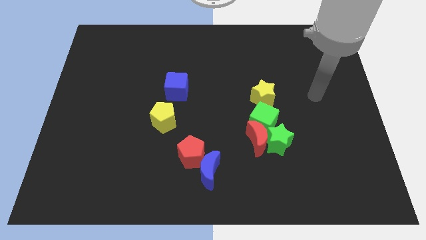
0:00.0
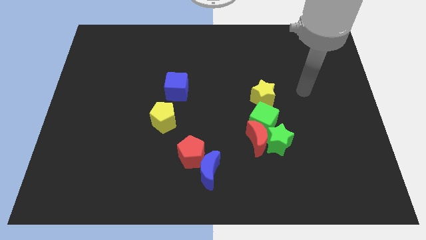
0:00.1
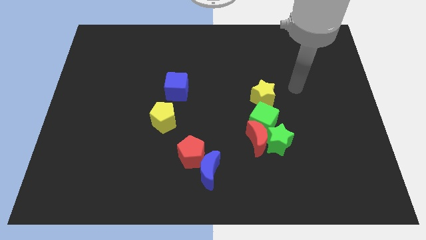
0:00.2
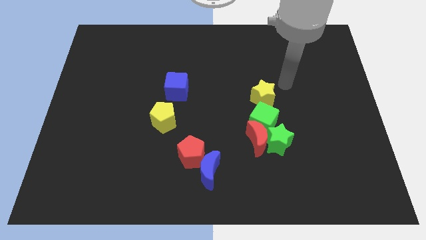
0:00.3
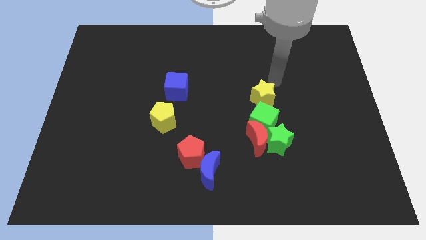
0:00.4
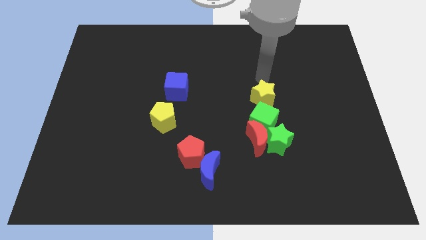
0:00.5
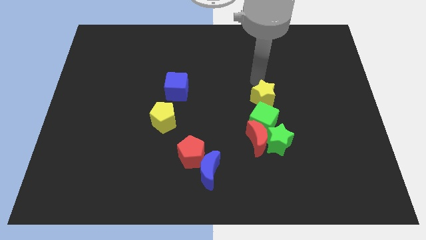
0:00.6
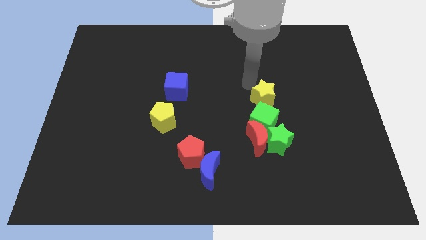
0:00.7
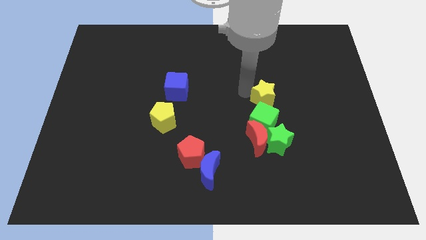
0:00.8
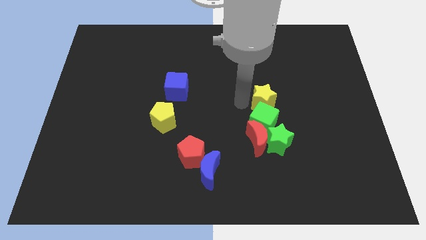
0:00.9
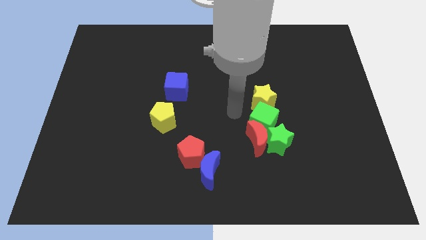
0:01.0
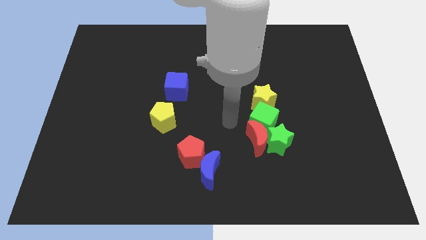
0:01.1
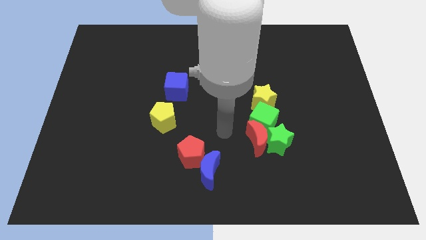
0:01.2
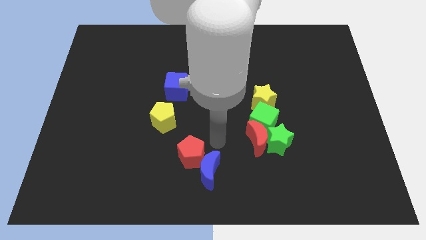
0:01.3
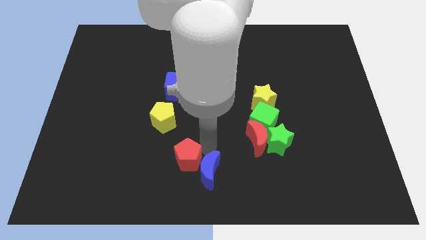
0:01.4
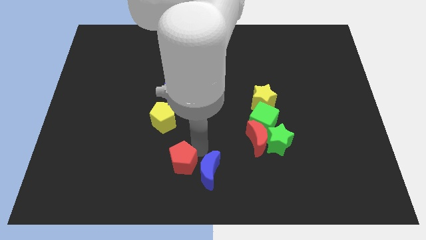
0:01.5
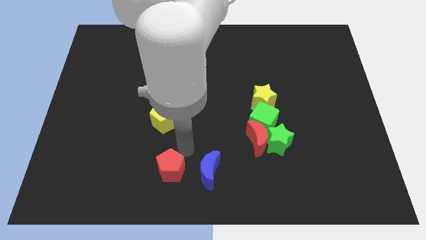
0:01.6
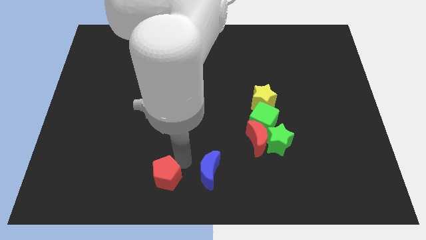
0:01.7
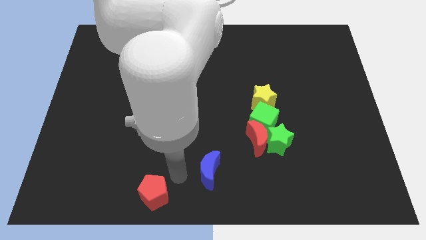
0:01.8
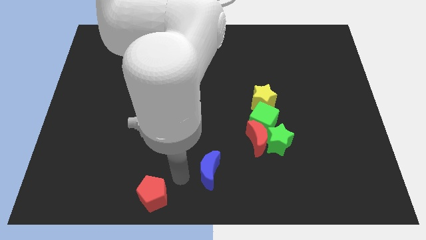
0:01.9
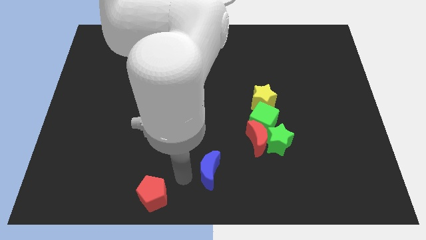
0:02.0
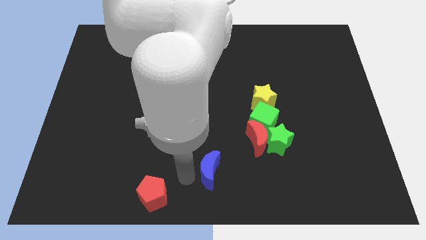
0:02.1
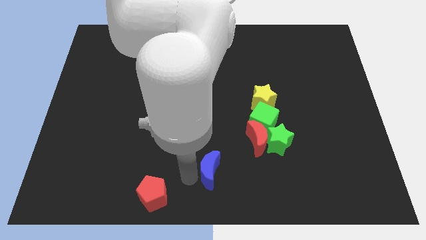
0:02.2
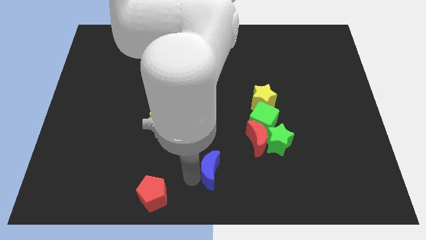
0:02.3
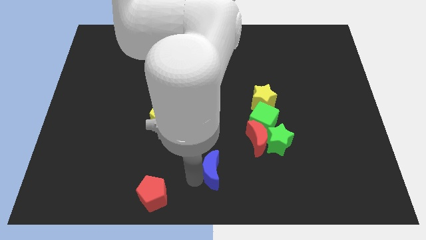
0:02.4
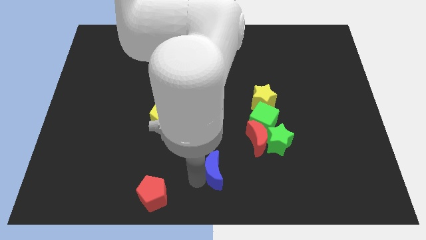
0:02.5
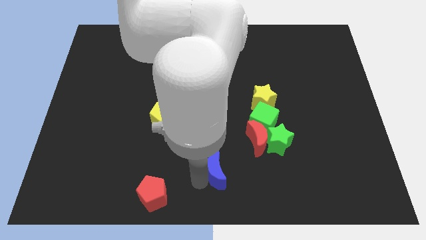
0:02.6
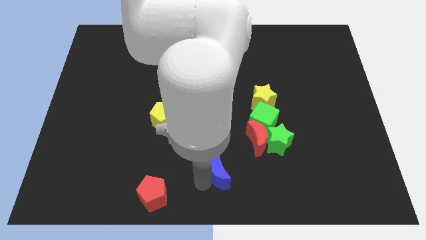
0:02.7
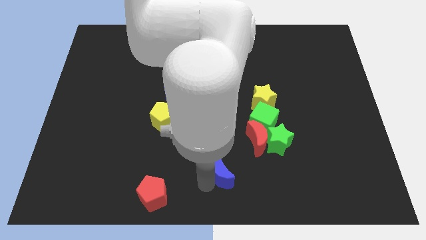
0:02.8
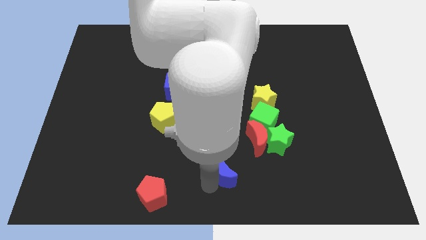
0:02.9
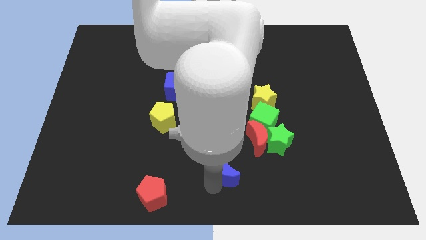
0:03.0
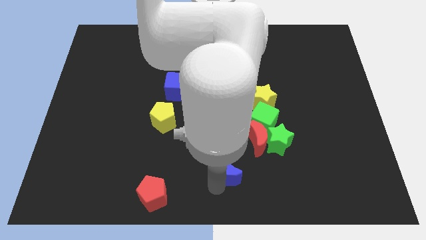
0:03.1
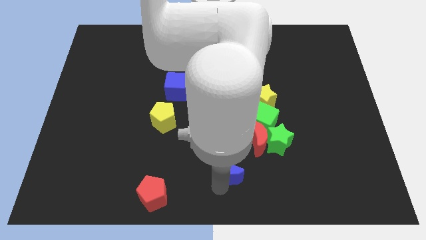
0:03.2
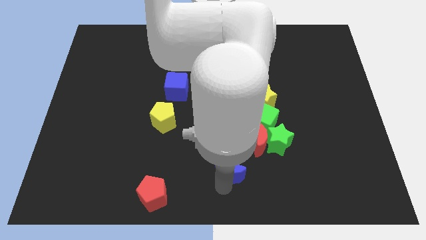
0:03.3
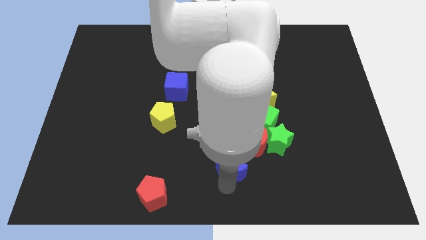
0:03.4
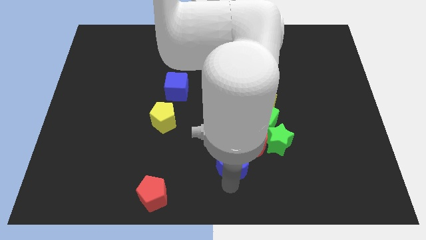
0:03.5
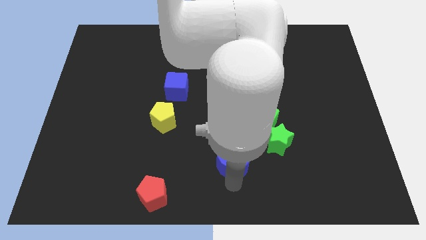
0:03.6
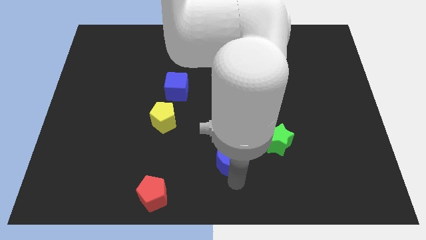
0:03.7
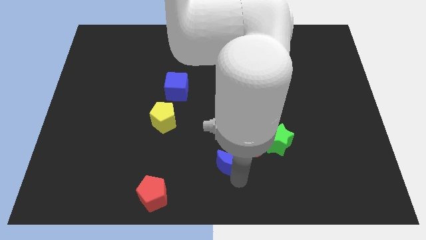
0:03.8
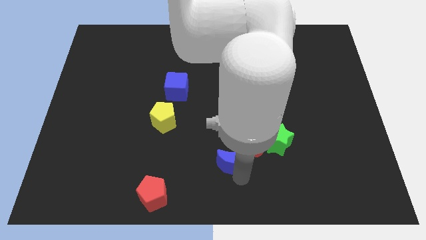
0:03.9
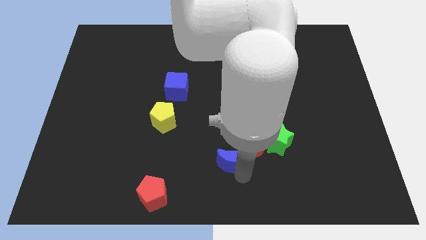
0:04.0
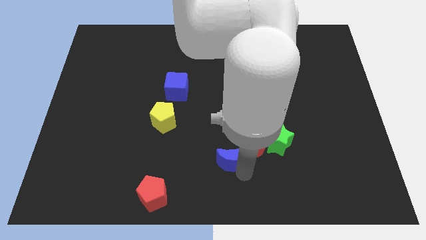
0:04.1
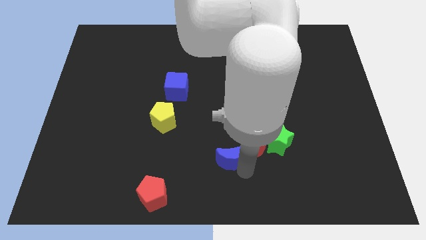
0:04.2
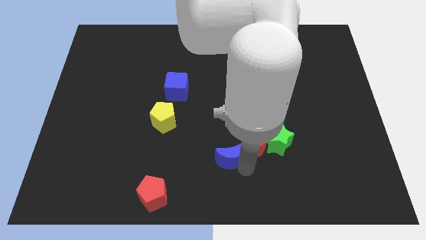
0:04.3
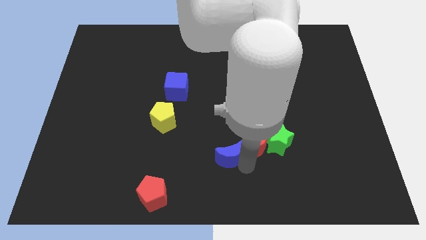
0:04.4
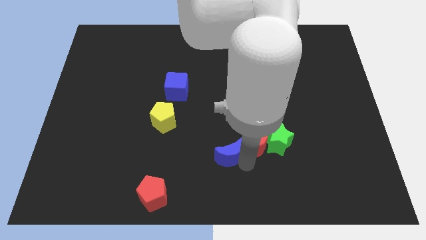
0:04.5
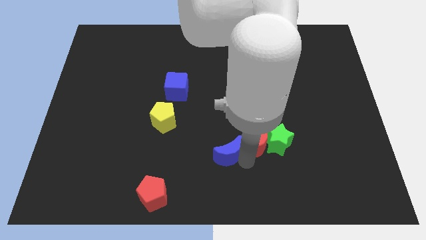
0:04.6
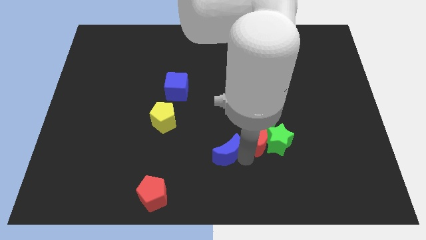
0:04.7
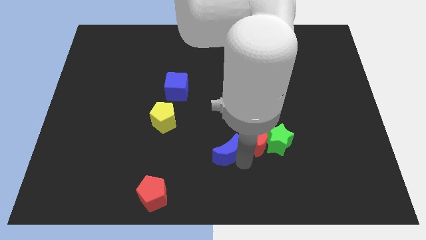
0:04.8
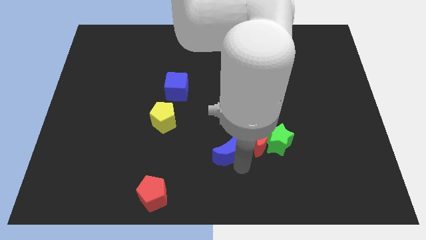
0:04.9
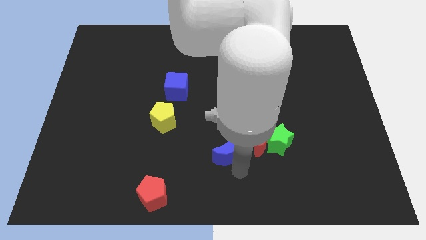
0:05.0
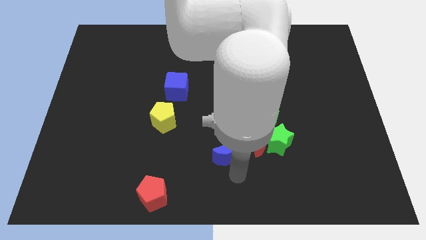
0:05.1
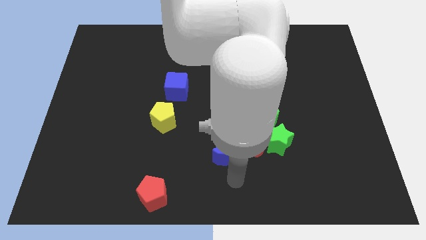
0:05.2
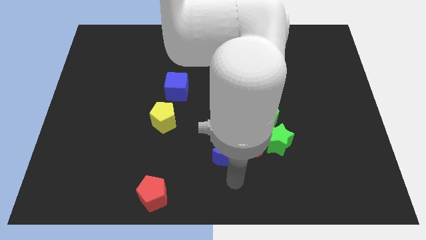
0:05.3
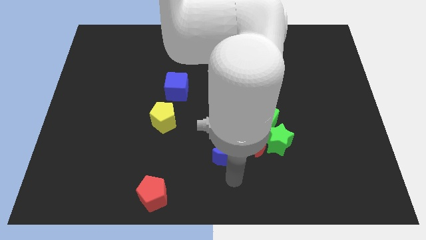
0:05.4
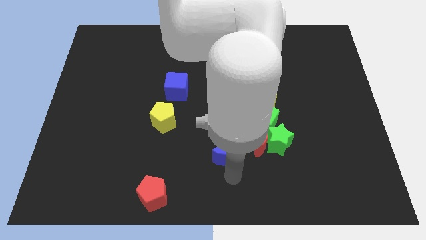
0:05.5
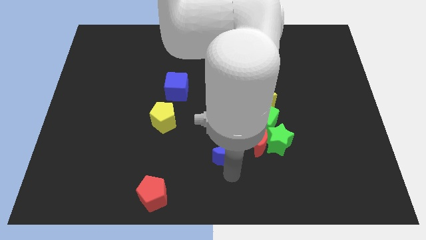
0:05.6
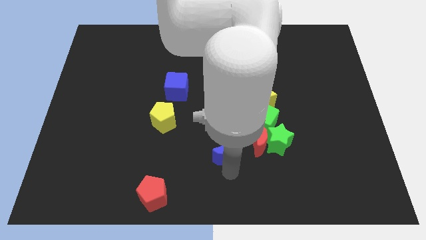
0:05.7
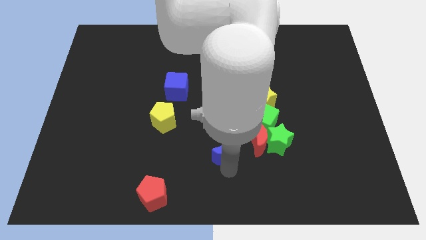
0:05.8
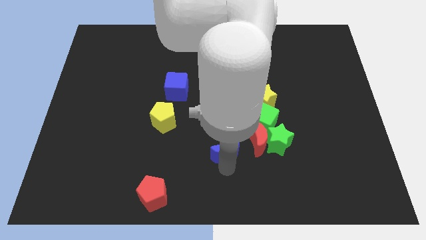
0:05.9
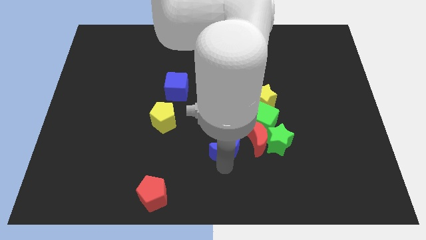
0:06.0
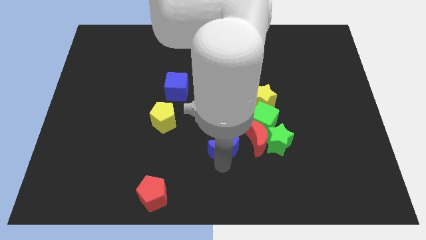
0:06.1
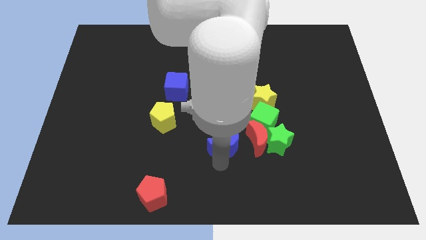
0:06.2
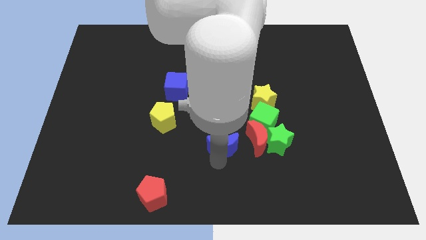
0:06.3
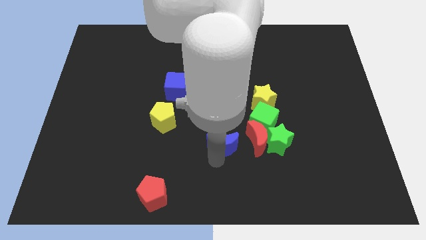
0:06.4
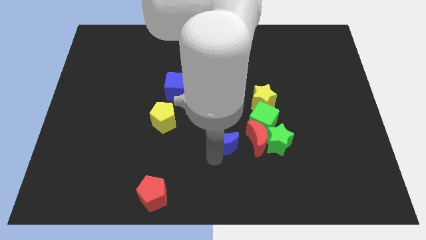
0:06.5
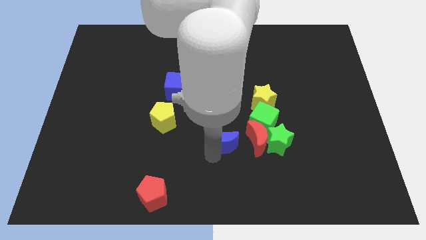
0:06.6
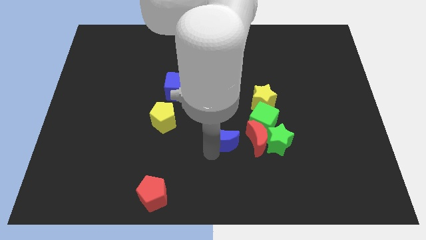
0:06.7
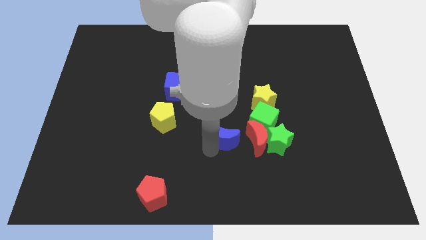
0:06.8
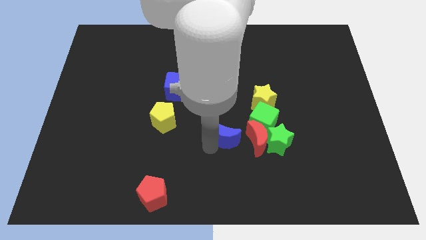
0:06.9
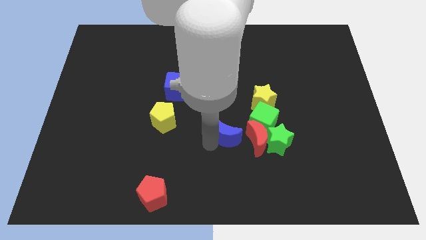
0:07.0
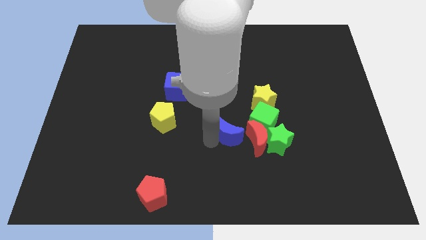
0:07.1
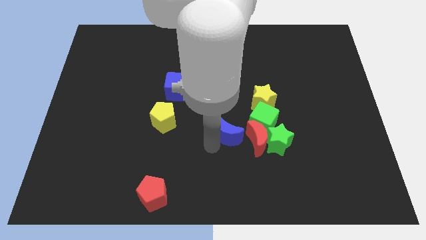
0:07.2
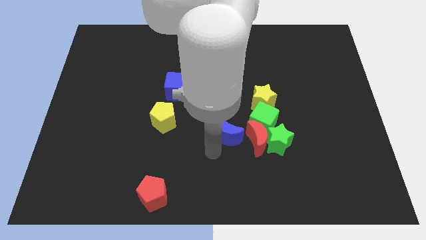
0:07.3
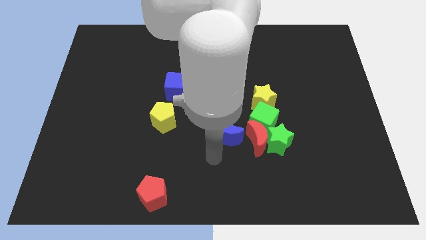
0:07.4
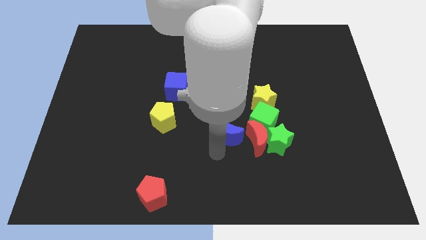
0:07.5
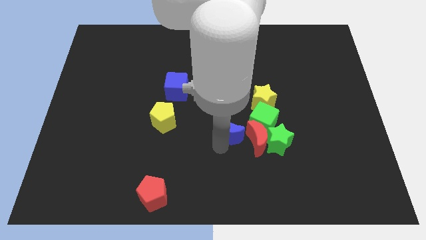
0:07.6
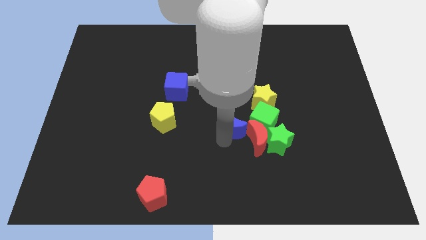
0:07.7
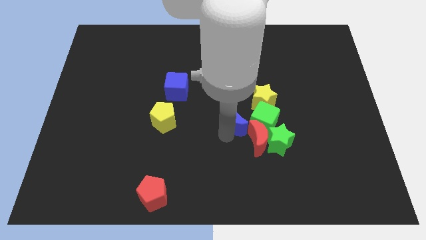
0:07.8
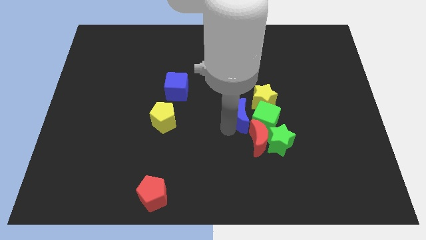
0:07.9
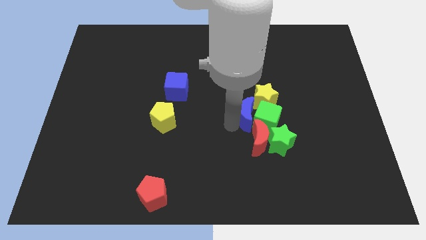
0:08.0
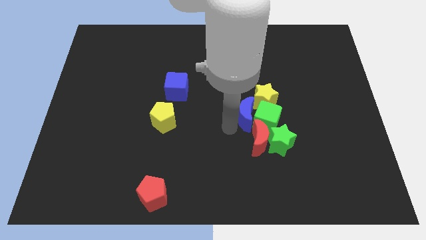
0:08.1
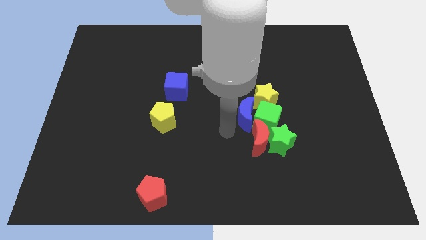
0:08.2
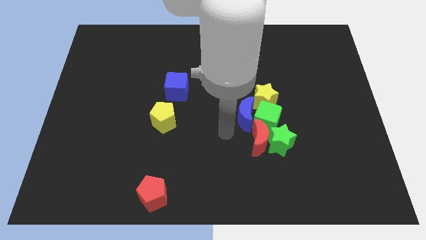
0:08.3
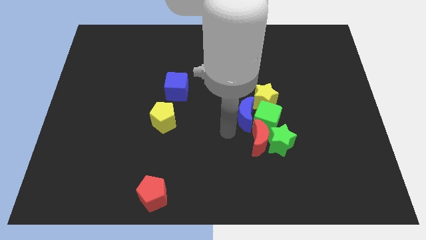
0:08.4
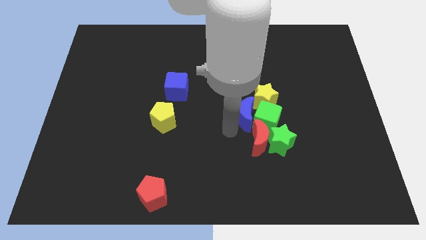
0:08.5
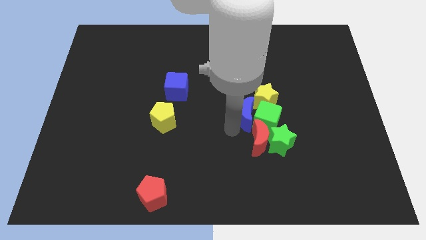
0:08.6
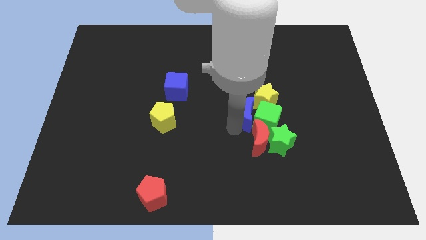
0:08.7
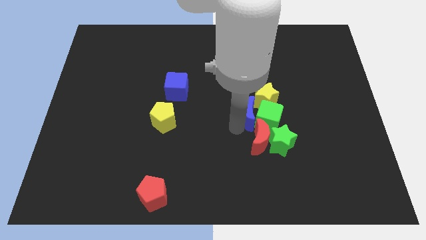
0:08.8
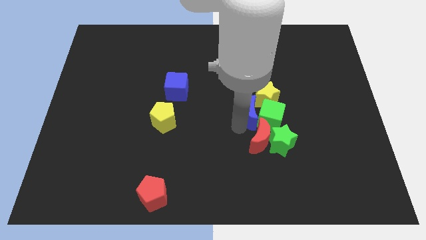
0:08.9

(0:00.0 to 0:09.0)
slide the blue moon towards the yellow star
